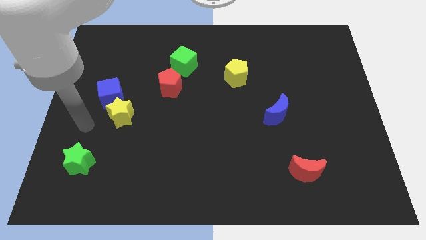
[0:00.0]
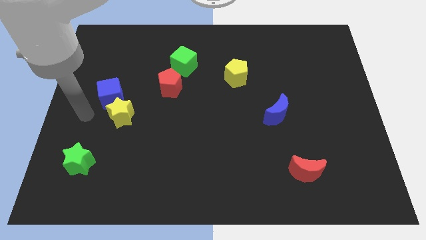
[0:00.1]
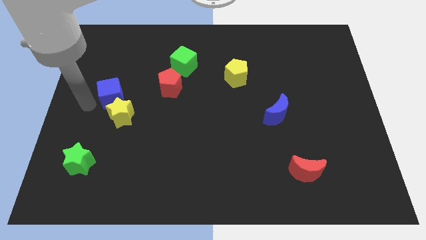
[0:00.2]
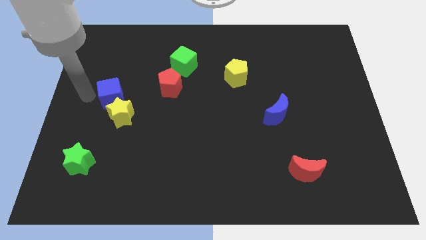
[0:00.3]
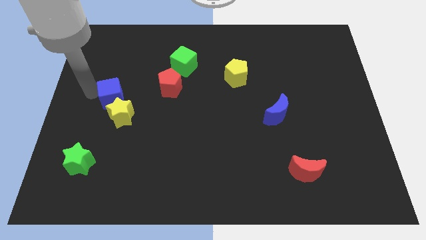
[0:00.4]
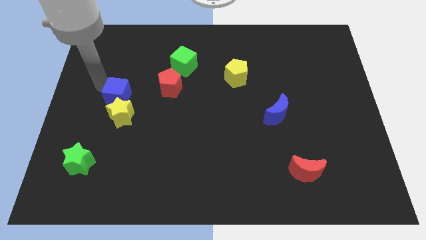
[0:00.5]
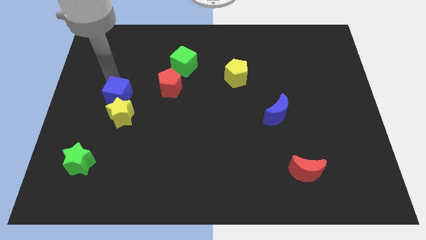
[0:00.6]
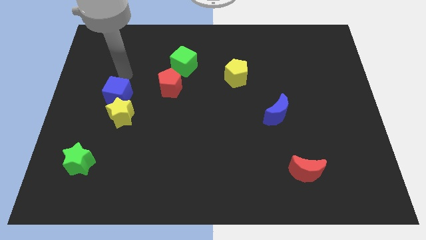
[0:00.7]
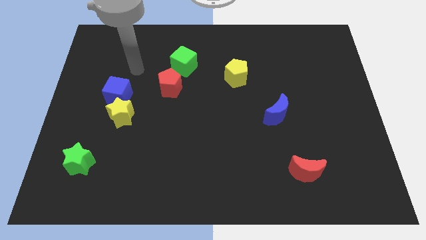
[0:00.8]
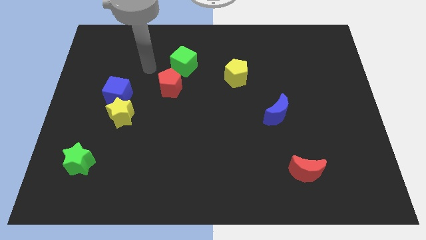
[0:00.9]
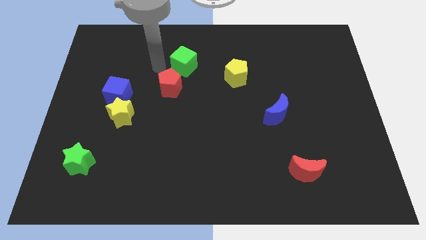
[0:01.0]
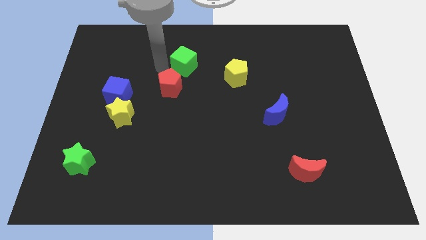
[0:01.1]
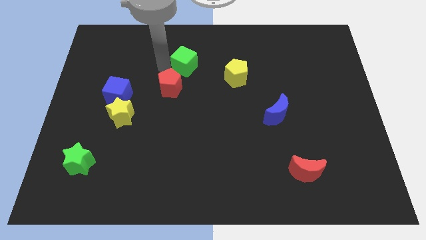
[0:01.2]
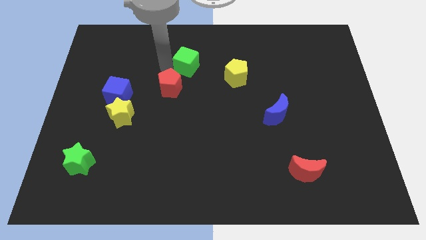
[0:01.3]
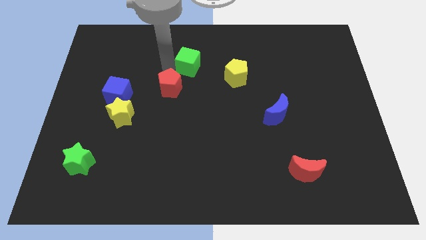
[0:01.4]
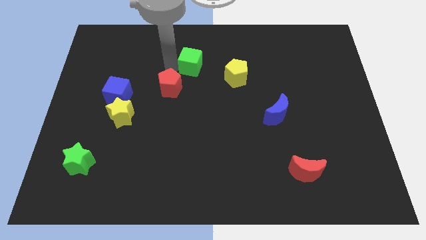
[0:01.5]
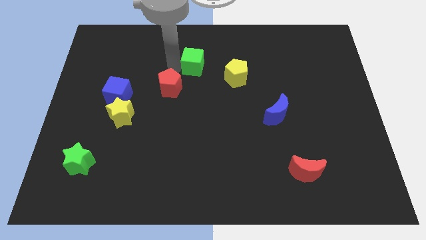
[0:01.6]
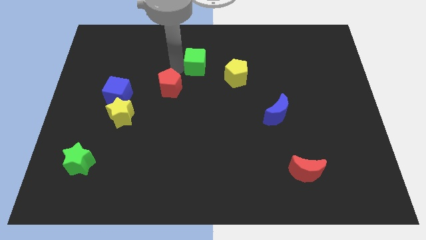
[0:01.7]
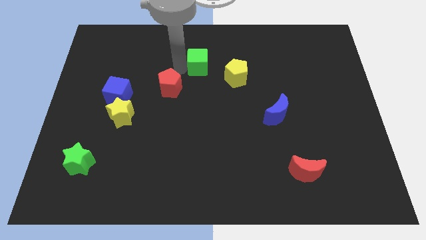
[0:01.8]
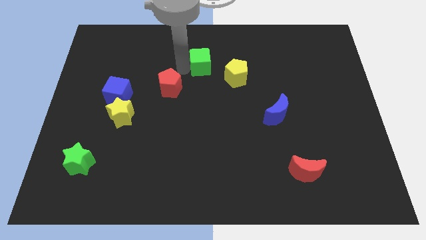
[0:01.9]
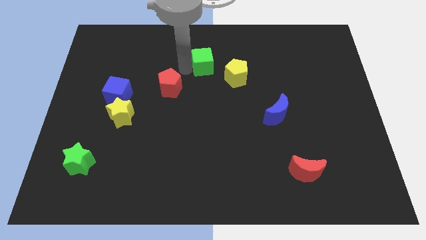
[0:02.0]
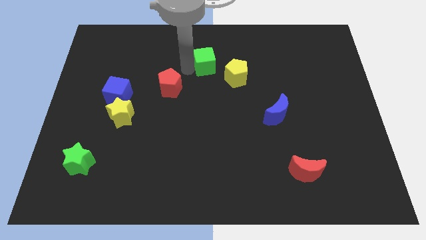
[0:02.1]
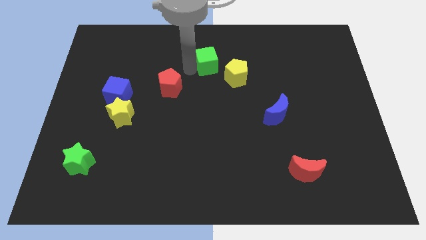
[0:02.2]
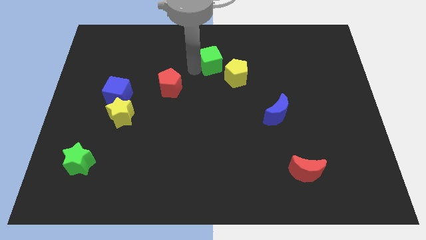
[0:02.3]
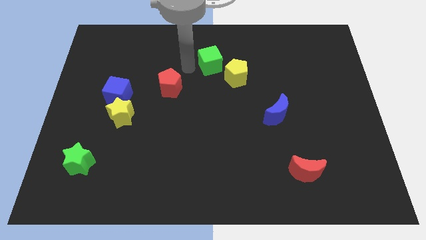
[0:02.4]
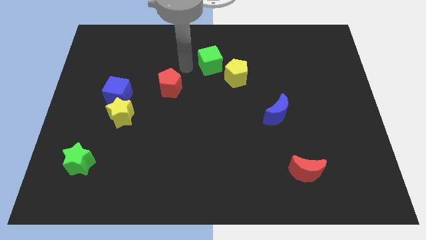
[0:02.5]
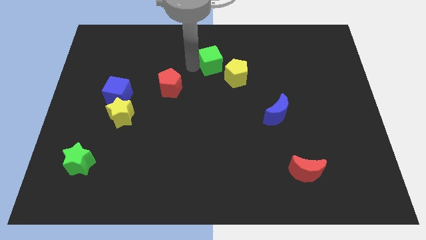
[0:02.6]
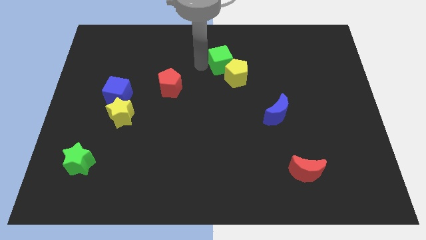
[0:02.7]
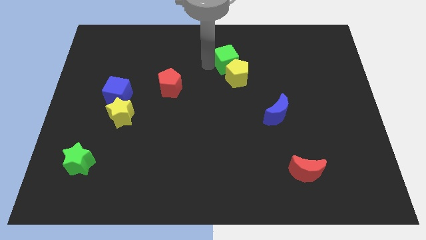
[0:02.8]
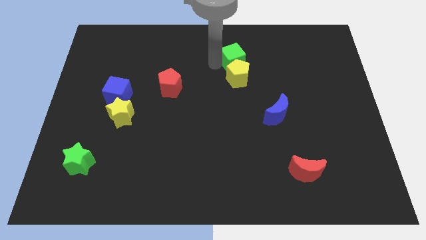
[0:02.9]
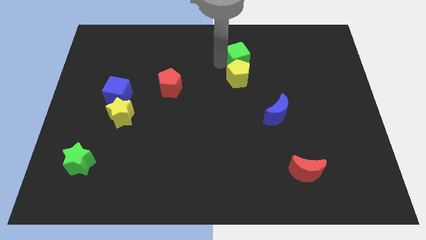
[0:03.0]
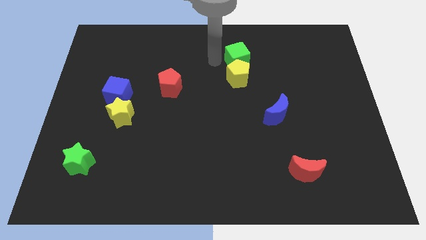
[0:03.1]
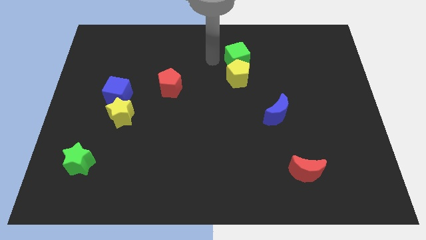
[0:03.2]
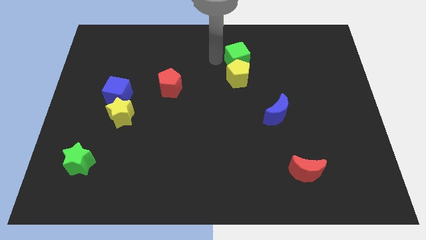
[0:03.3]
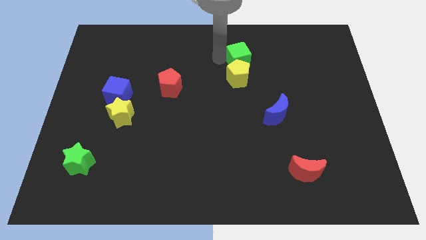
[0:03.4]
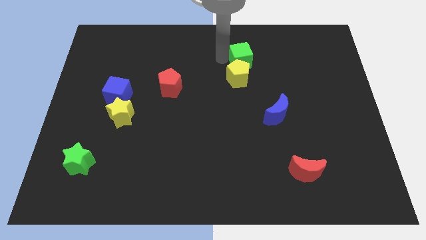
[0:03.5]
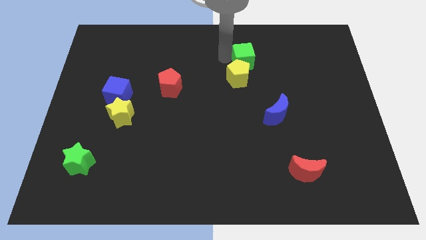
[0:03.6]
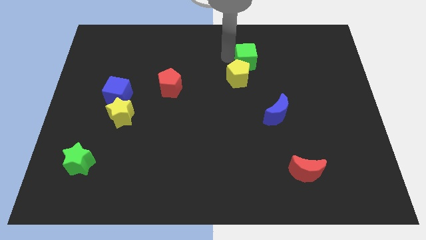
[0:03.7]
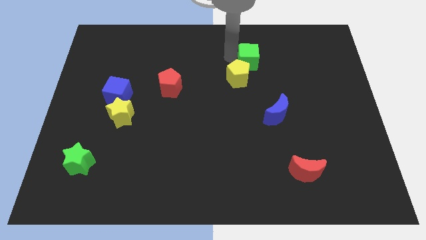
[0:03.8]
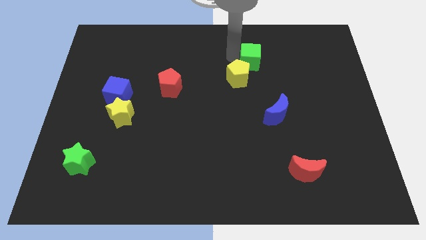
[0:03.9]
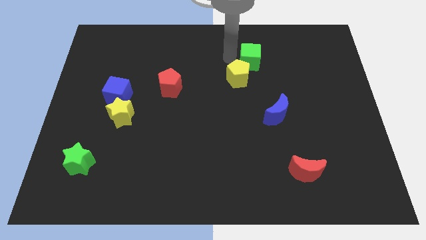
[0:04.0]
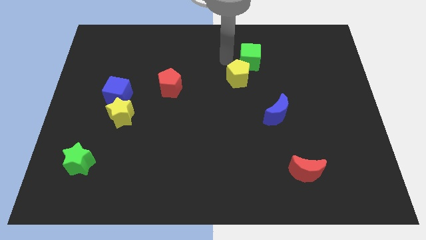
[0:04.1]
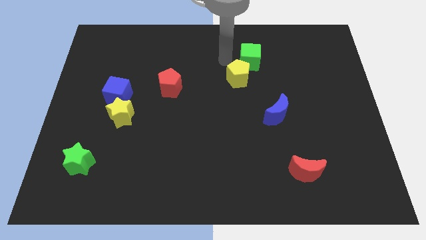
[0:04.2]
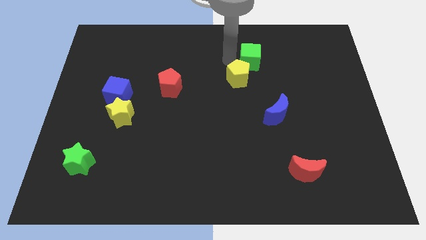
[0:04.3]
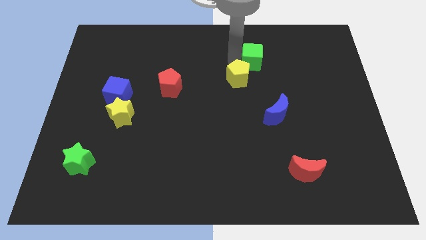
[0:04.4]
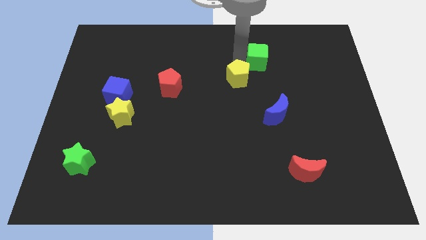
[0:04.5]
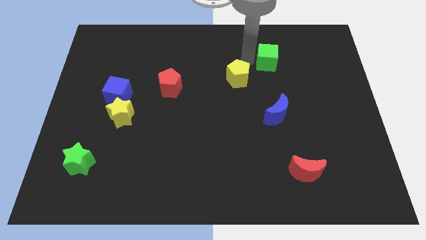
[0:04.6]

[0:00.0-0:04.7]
push the green cube right

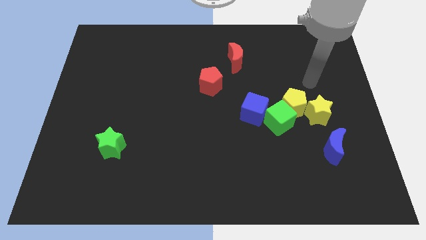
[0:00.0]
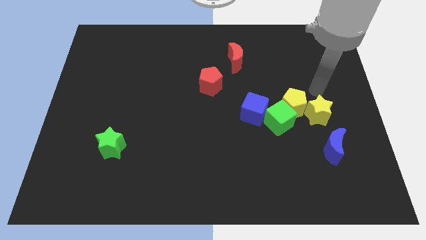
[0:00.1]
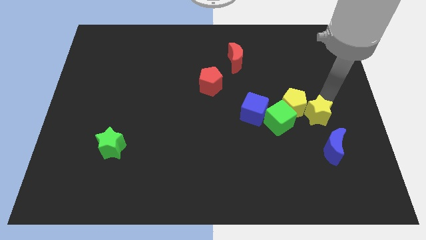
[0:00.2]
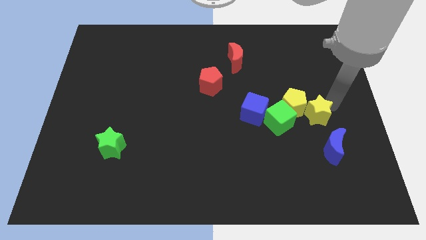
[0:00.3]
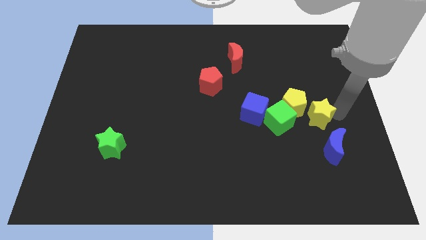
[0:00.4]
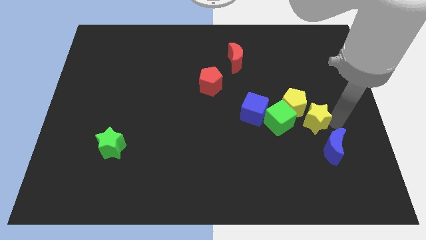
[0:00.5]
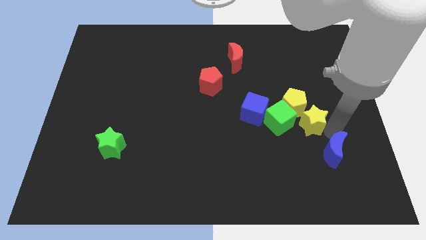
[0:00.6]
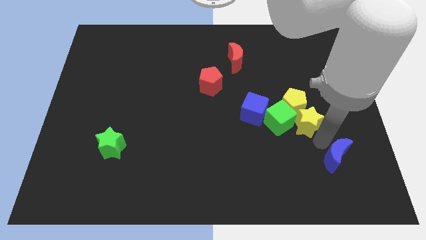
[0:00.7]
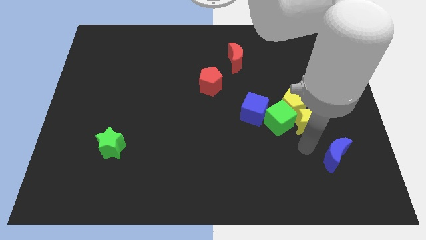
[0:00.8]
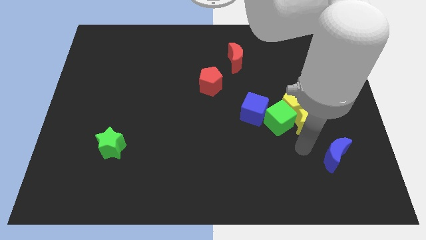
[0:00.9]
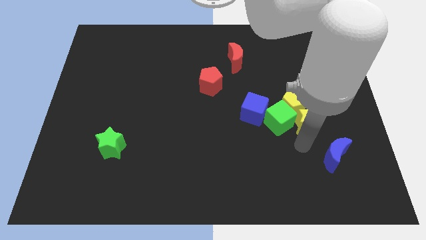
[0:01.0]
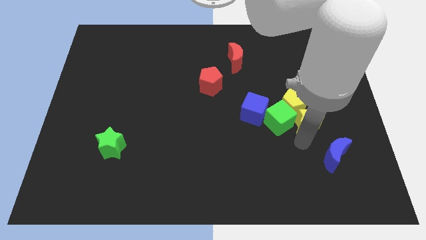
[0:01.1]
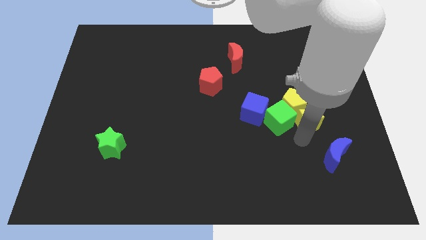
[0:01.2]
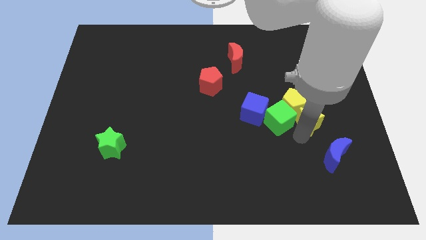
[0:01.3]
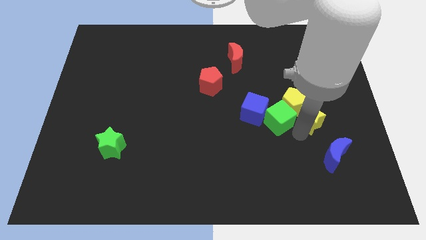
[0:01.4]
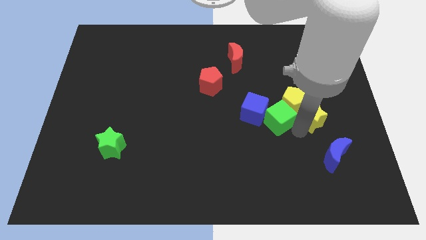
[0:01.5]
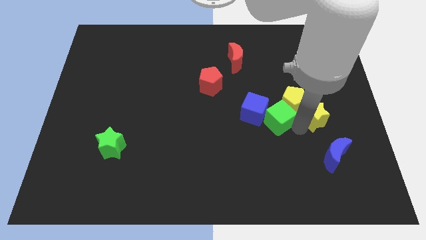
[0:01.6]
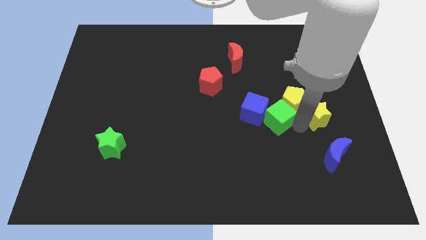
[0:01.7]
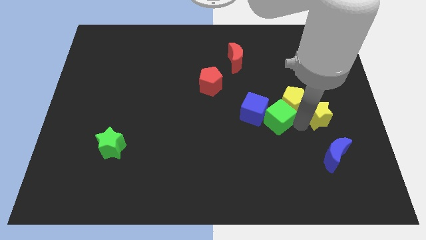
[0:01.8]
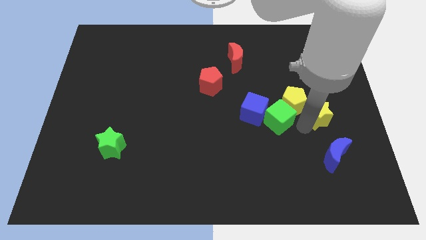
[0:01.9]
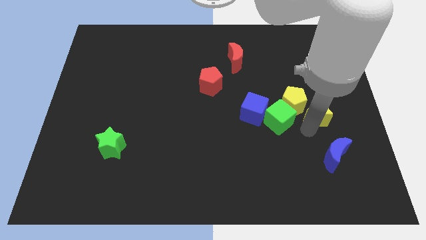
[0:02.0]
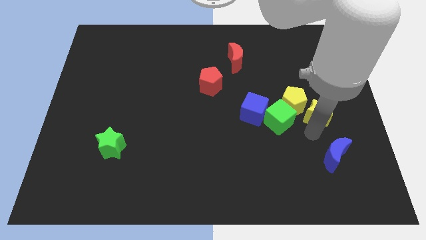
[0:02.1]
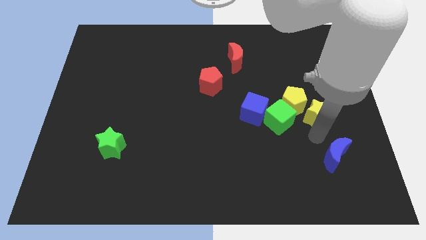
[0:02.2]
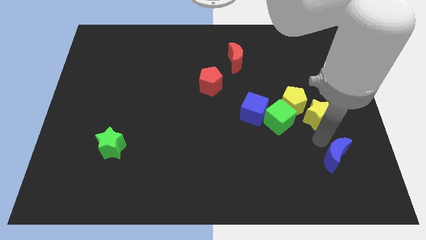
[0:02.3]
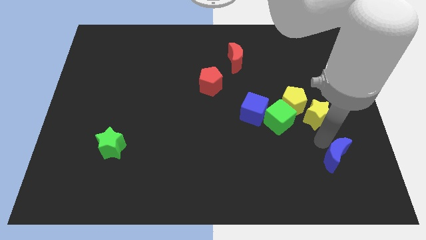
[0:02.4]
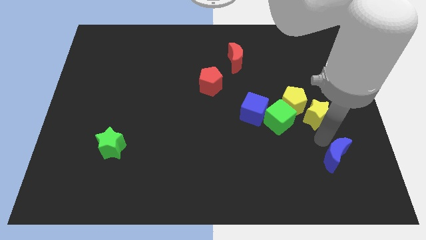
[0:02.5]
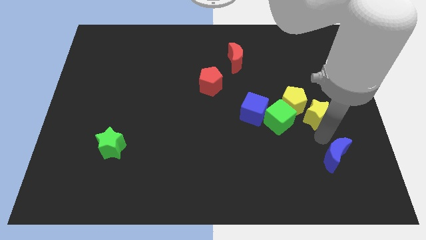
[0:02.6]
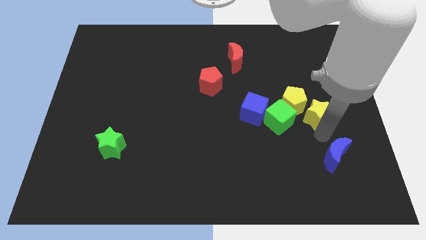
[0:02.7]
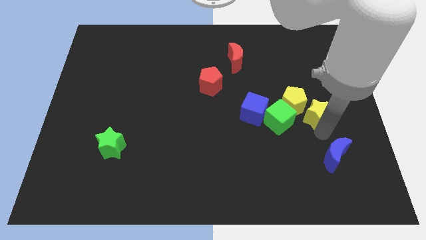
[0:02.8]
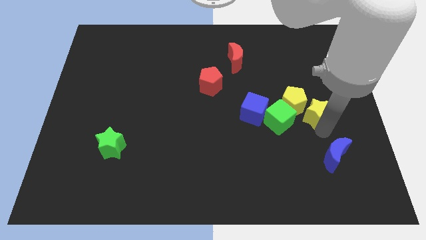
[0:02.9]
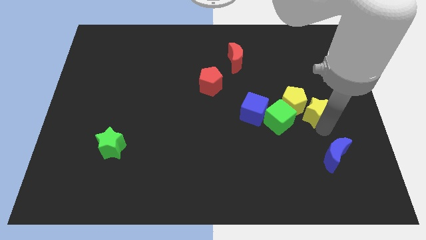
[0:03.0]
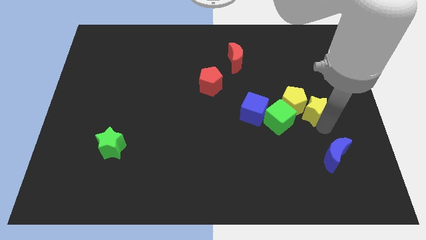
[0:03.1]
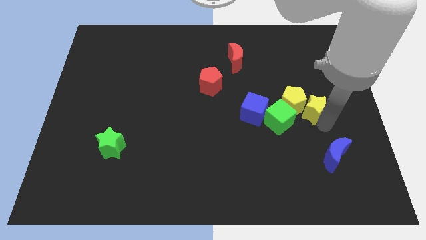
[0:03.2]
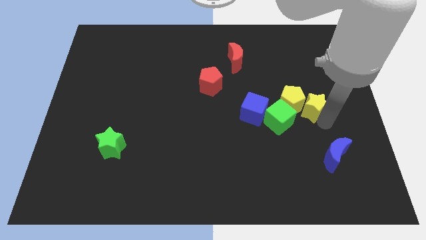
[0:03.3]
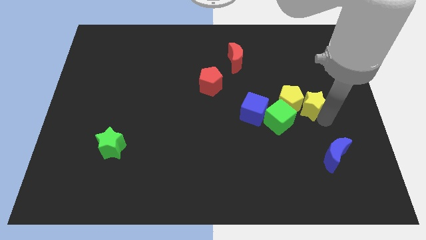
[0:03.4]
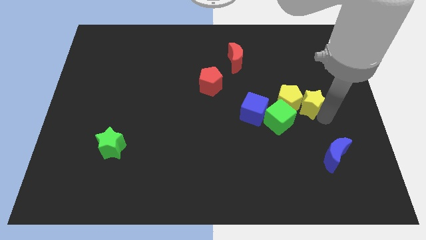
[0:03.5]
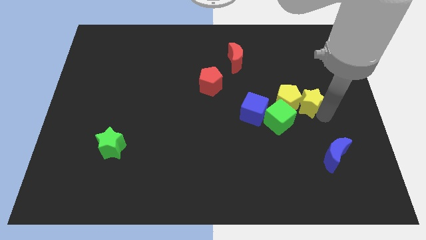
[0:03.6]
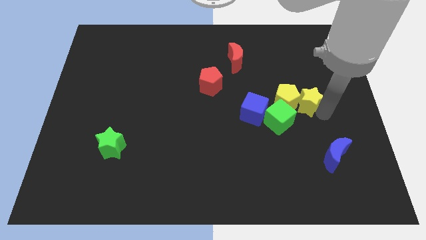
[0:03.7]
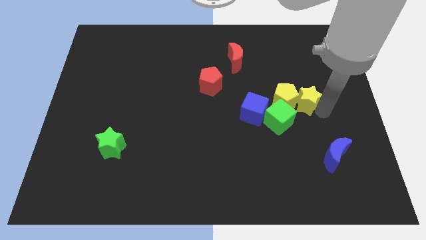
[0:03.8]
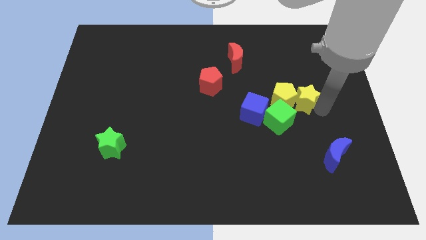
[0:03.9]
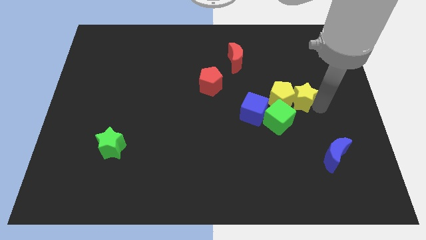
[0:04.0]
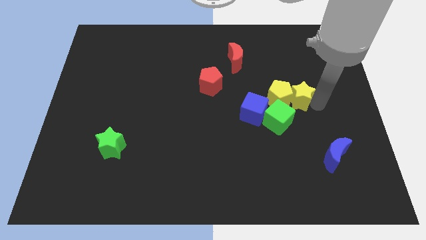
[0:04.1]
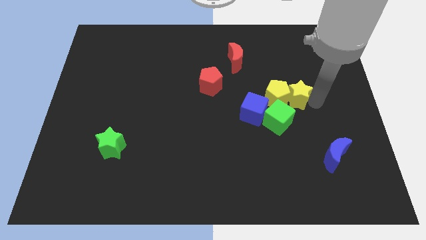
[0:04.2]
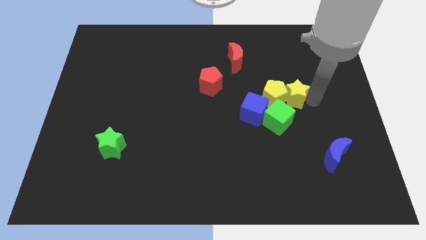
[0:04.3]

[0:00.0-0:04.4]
slightly push the yellow star upwards and to the left
